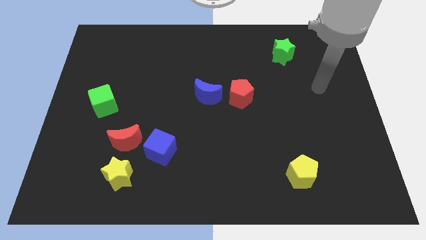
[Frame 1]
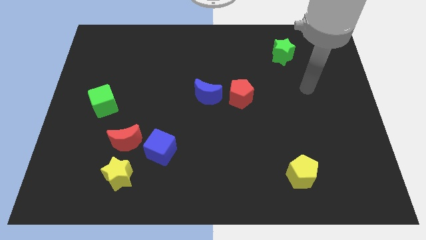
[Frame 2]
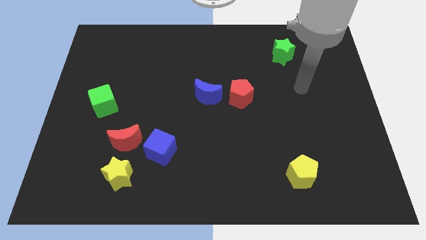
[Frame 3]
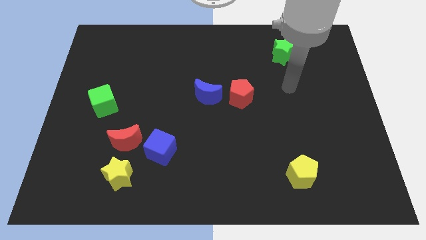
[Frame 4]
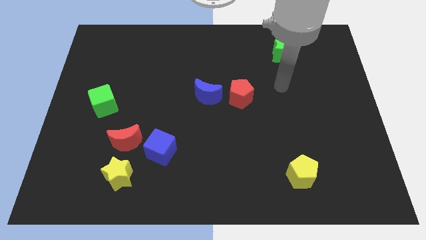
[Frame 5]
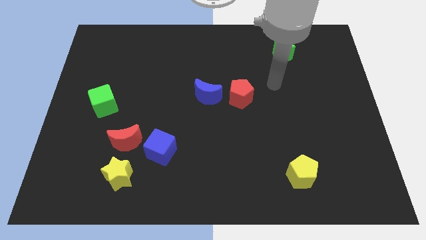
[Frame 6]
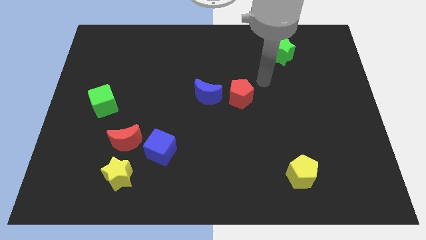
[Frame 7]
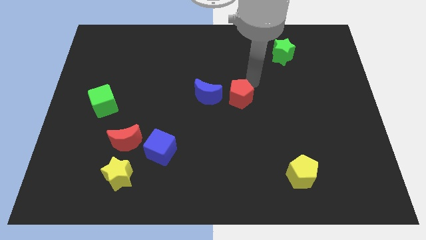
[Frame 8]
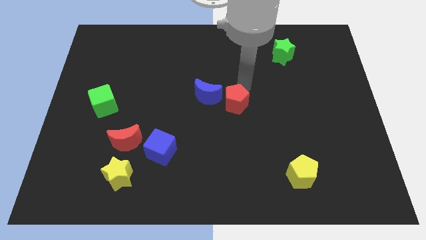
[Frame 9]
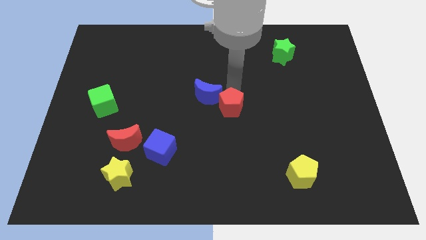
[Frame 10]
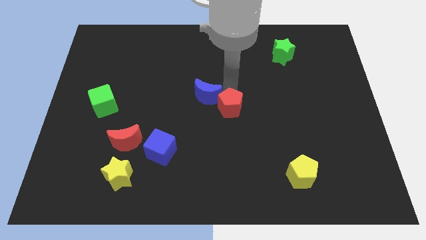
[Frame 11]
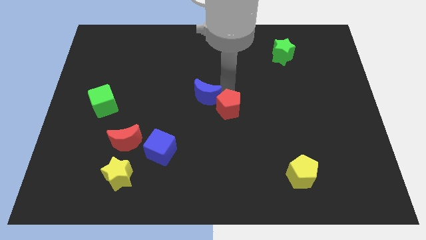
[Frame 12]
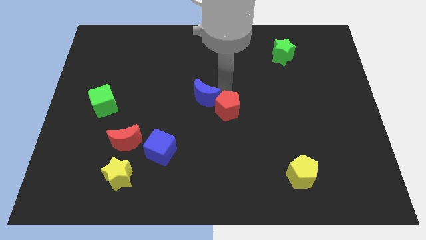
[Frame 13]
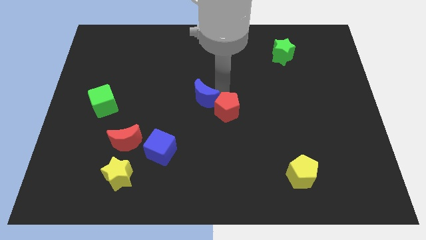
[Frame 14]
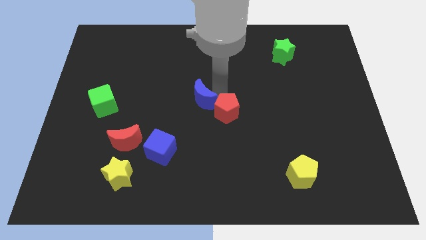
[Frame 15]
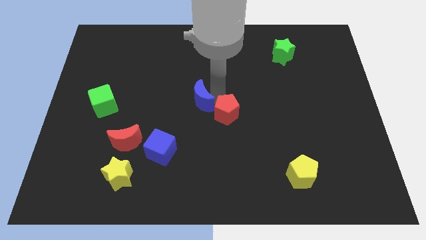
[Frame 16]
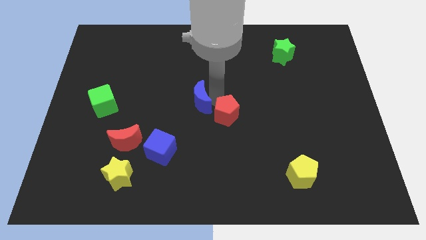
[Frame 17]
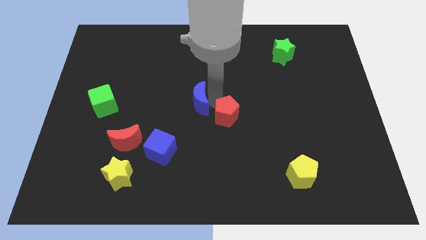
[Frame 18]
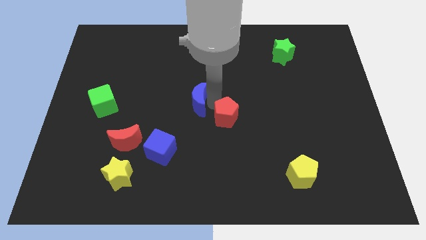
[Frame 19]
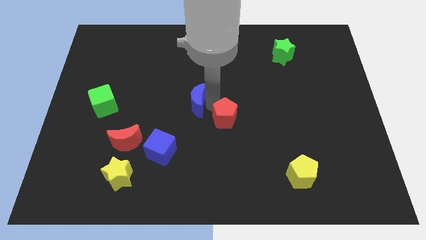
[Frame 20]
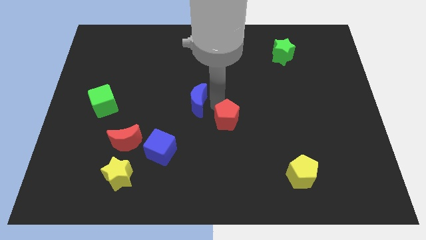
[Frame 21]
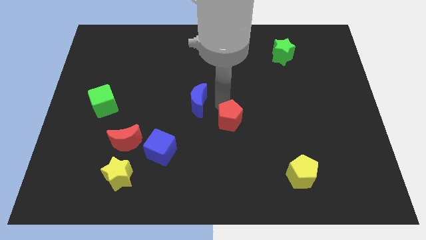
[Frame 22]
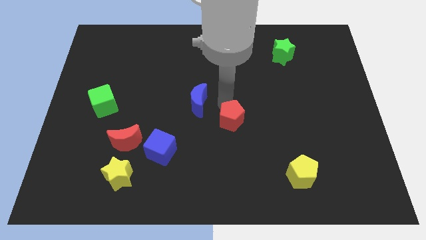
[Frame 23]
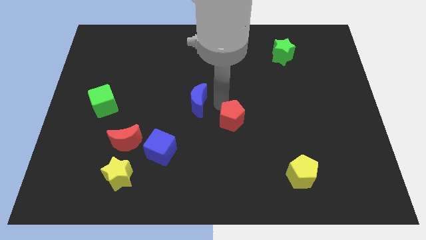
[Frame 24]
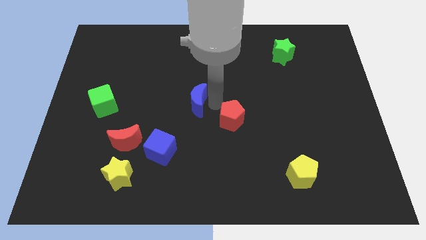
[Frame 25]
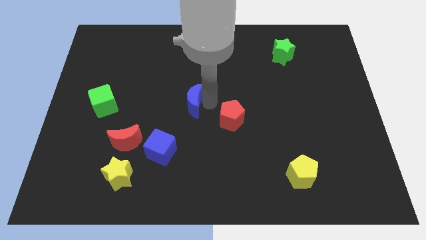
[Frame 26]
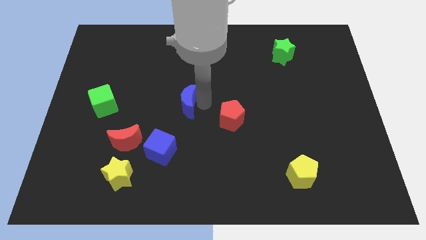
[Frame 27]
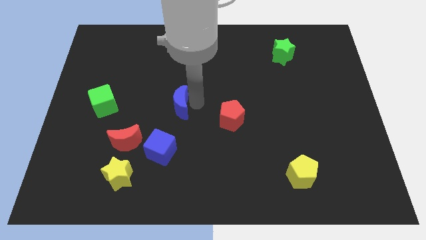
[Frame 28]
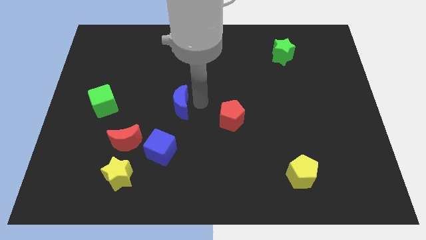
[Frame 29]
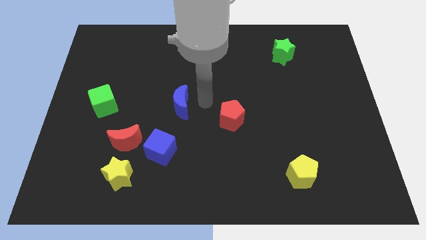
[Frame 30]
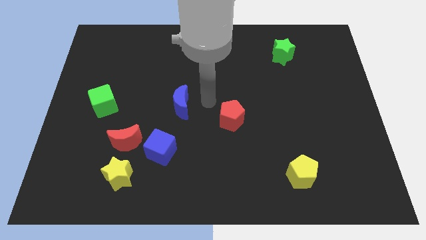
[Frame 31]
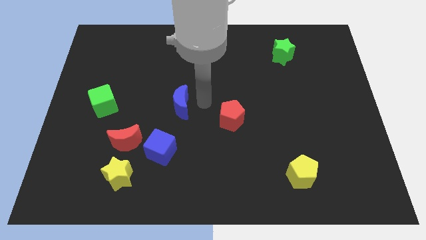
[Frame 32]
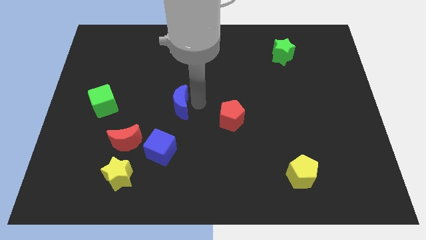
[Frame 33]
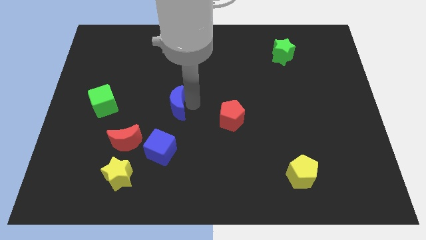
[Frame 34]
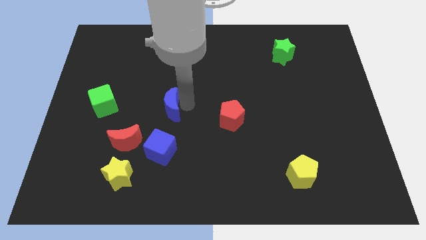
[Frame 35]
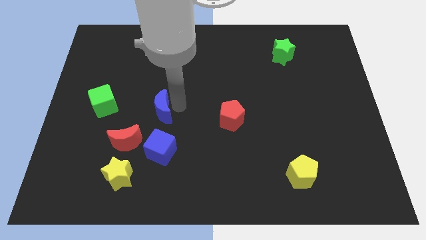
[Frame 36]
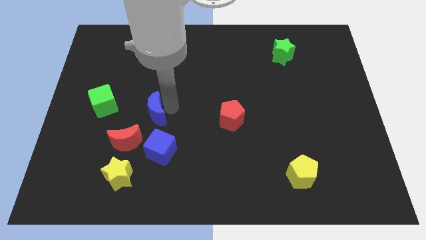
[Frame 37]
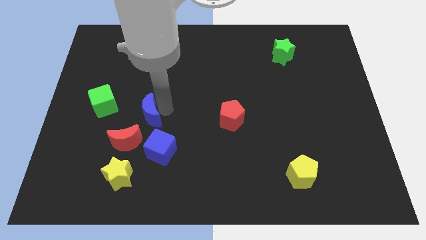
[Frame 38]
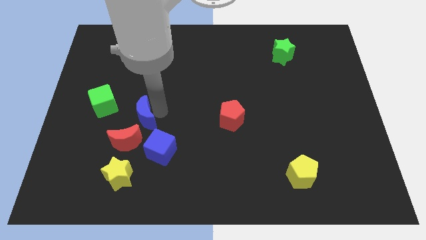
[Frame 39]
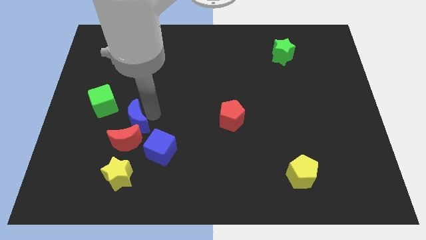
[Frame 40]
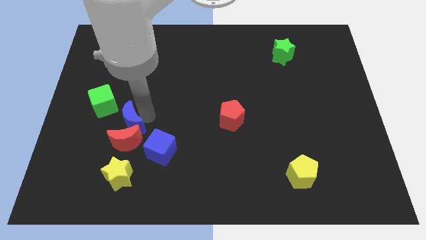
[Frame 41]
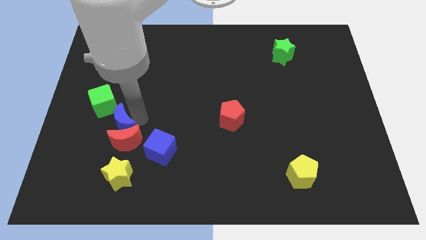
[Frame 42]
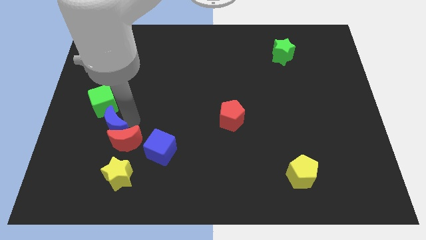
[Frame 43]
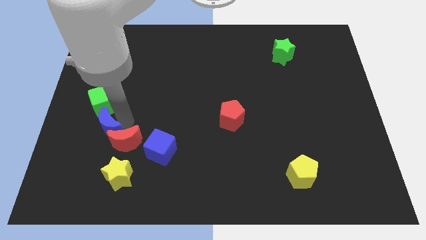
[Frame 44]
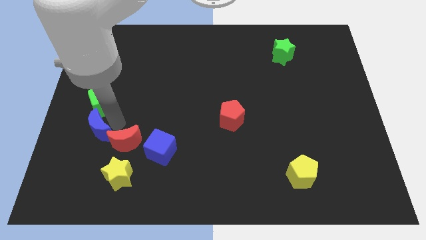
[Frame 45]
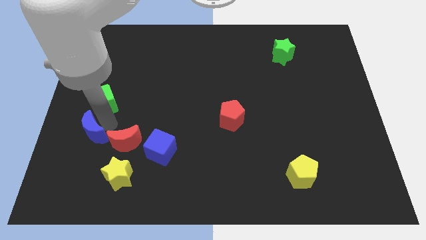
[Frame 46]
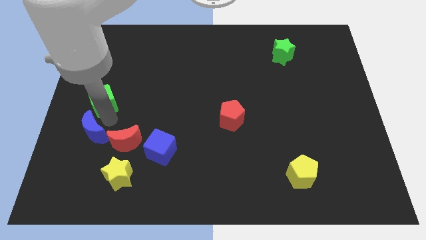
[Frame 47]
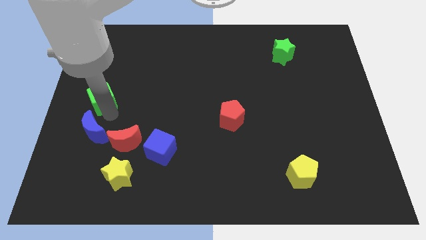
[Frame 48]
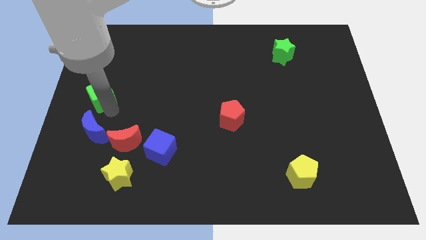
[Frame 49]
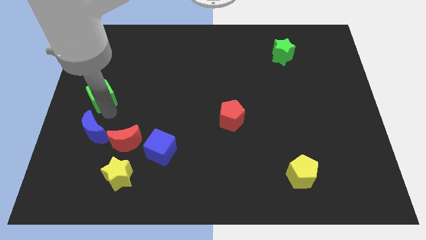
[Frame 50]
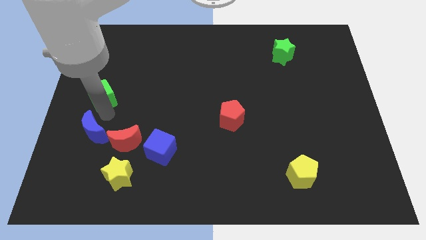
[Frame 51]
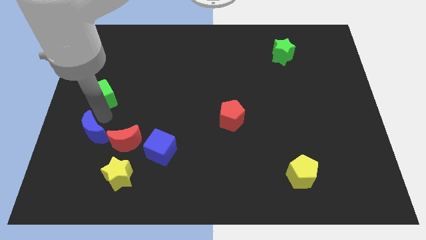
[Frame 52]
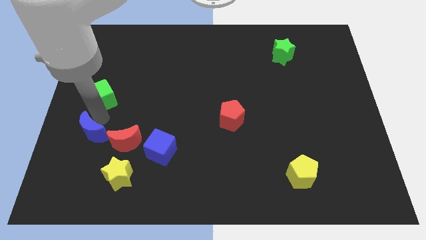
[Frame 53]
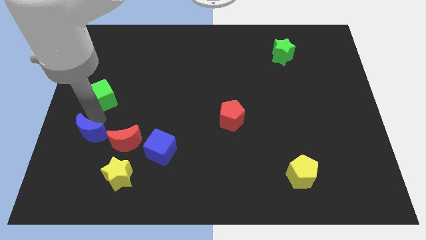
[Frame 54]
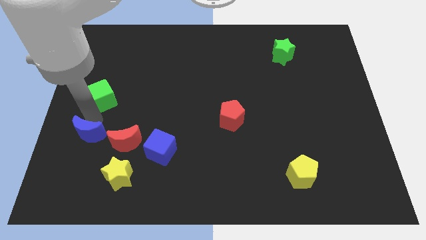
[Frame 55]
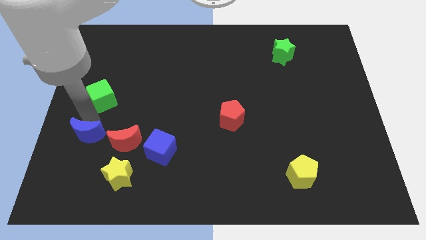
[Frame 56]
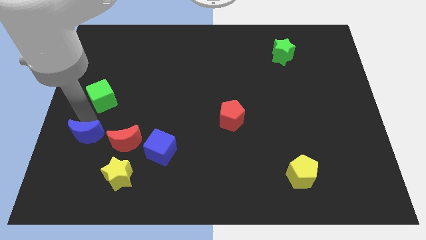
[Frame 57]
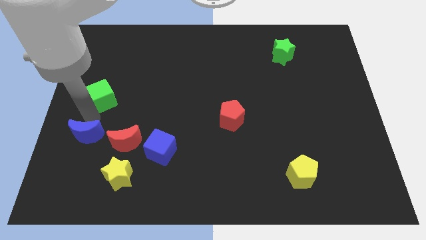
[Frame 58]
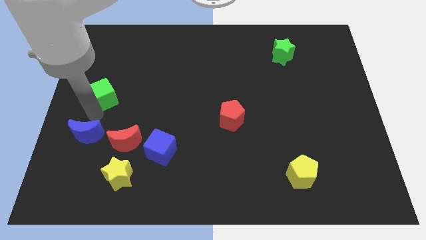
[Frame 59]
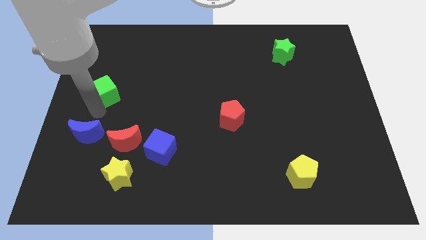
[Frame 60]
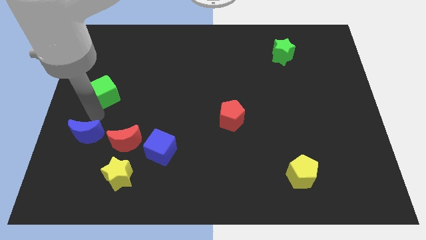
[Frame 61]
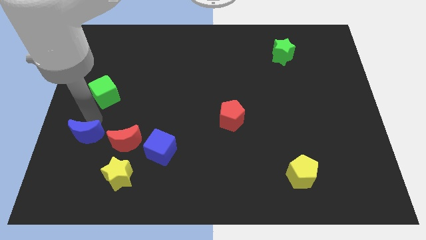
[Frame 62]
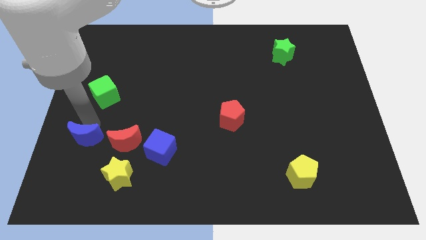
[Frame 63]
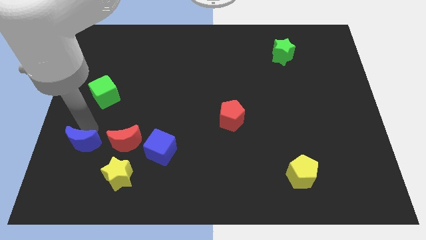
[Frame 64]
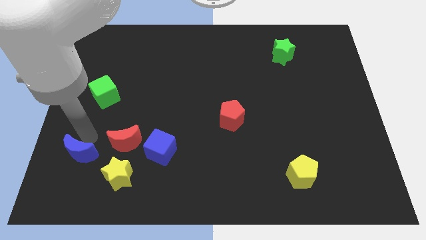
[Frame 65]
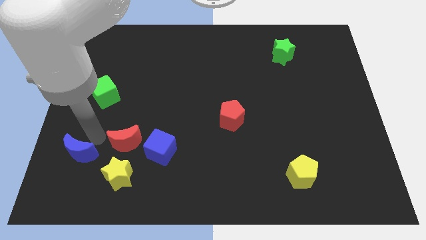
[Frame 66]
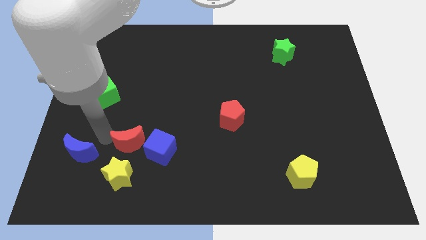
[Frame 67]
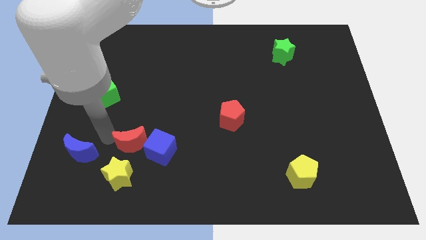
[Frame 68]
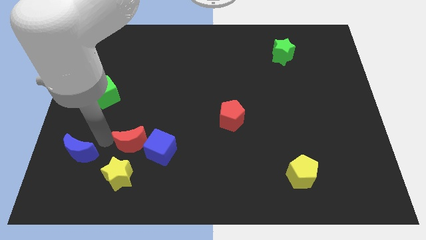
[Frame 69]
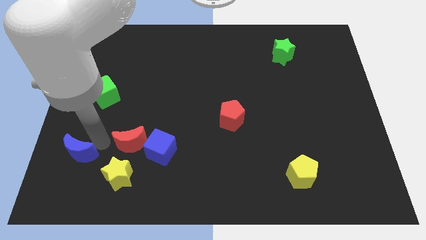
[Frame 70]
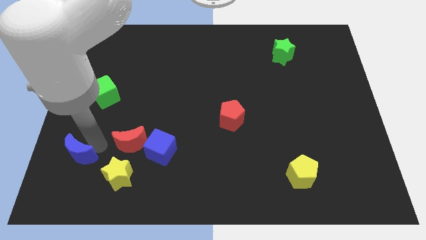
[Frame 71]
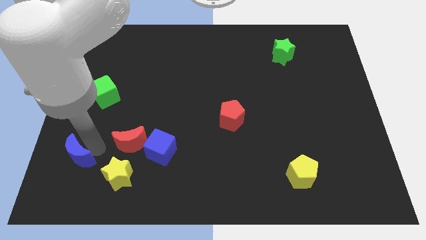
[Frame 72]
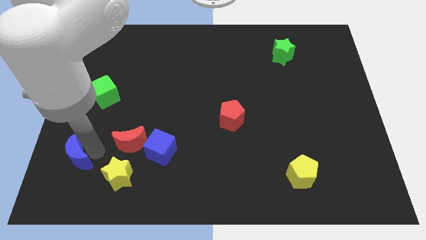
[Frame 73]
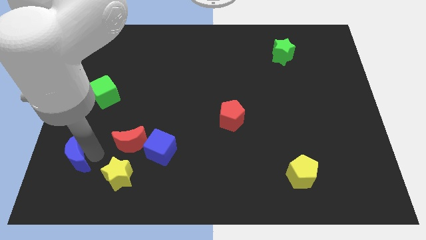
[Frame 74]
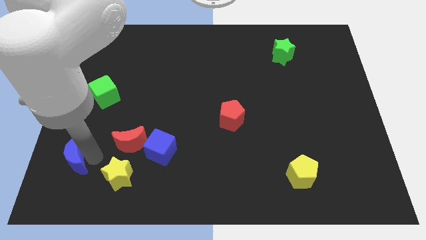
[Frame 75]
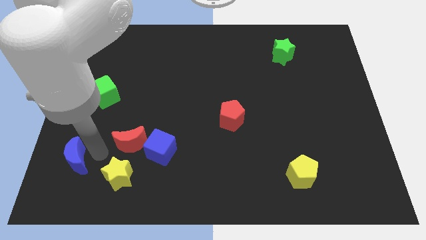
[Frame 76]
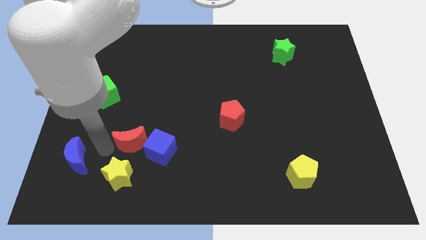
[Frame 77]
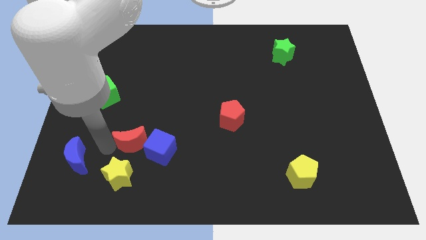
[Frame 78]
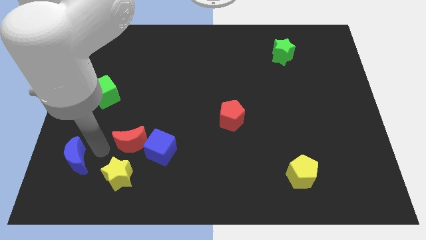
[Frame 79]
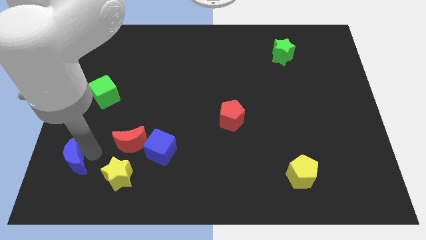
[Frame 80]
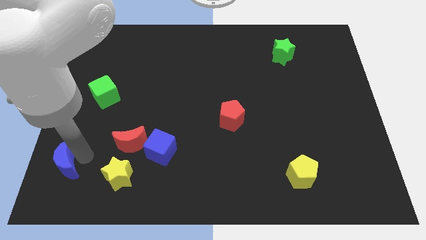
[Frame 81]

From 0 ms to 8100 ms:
slide the blue moon to the bottom left of the board
